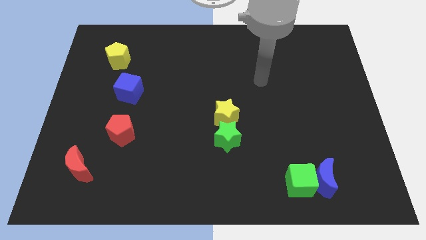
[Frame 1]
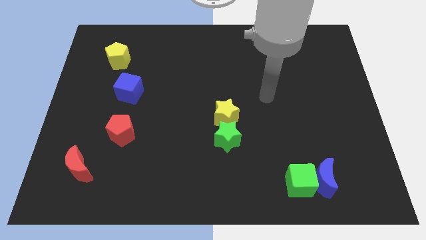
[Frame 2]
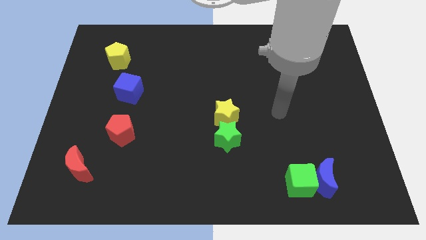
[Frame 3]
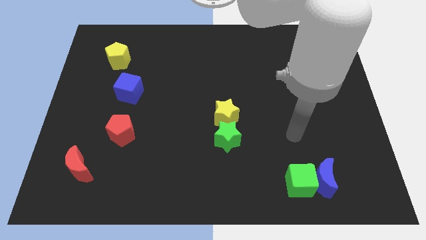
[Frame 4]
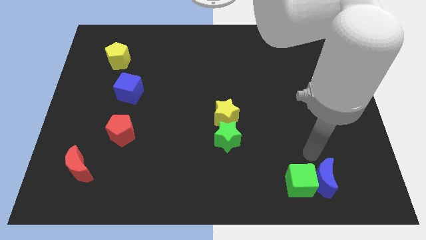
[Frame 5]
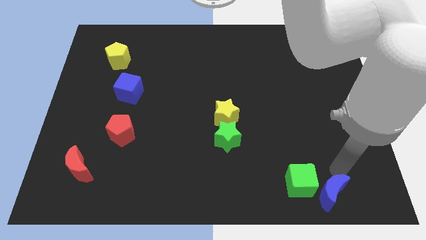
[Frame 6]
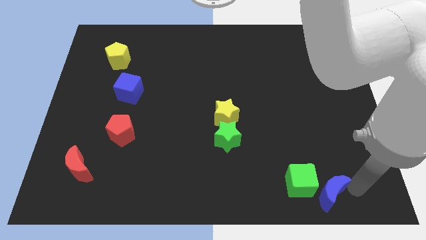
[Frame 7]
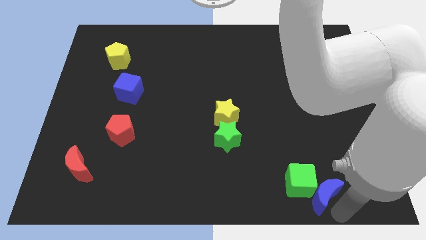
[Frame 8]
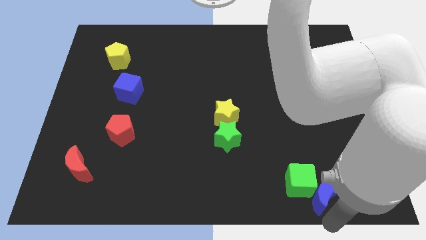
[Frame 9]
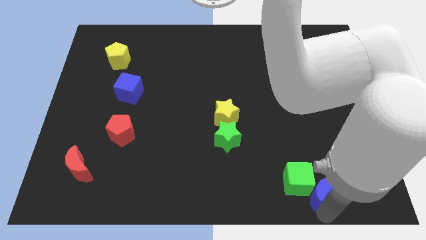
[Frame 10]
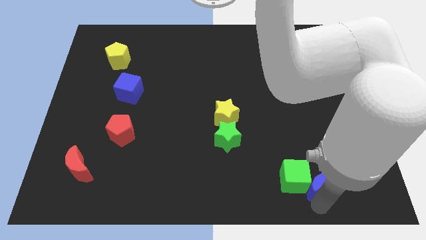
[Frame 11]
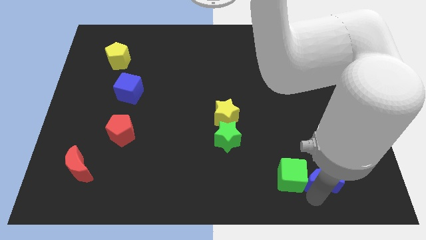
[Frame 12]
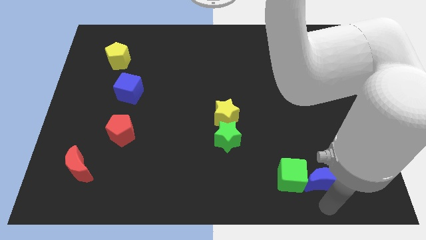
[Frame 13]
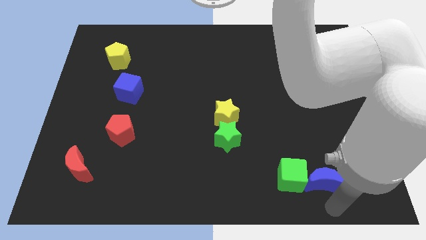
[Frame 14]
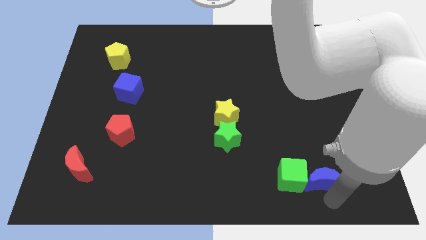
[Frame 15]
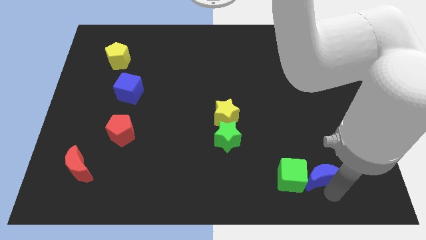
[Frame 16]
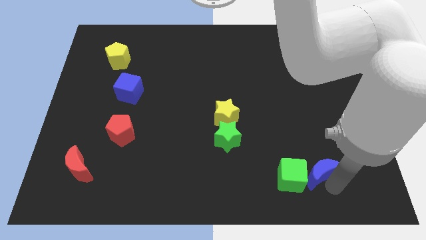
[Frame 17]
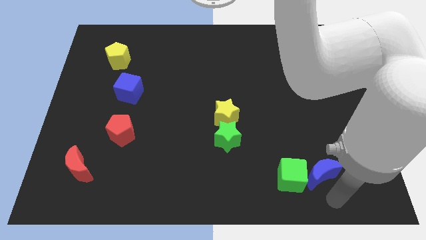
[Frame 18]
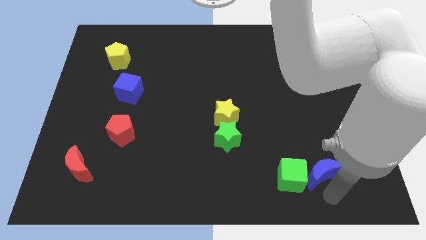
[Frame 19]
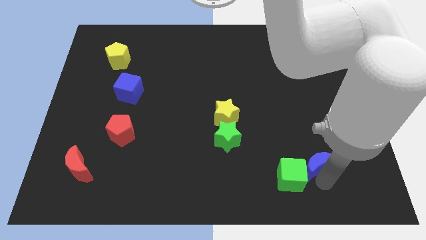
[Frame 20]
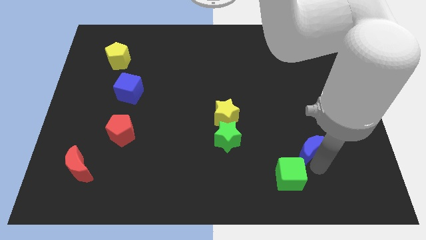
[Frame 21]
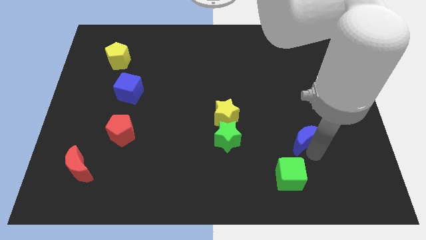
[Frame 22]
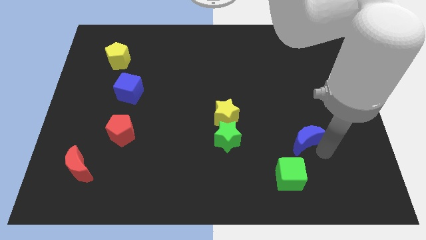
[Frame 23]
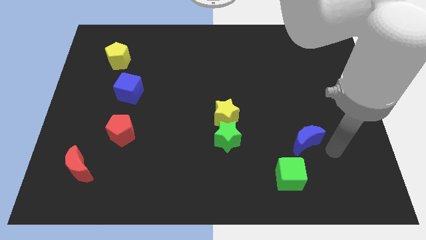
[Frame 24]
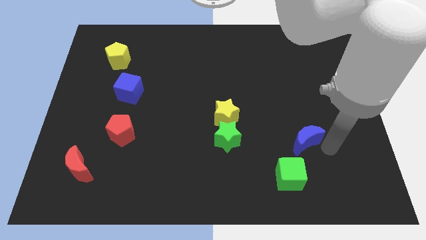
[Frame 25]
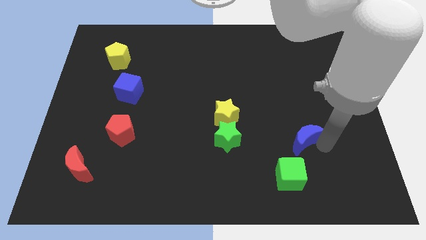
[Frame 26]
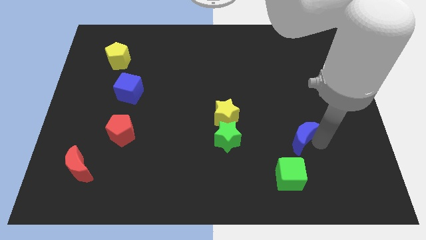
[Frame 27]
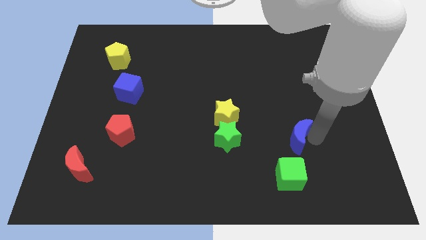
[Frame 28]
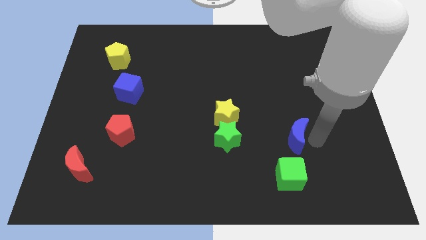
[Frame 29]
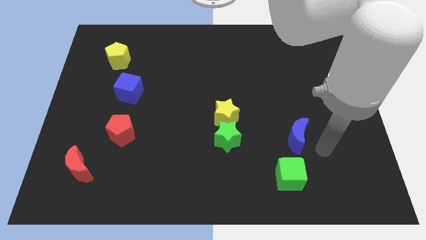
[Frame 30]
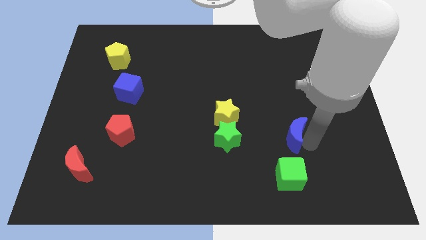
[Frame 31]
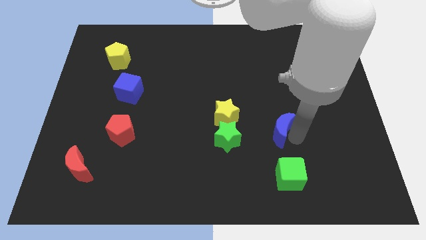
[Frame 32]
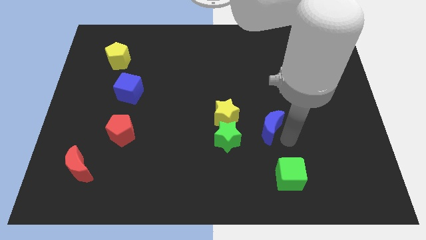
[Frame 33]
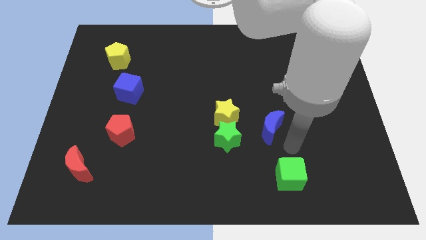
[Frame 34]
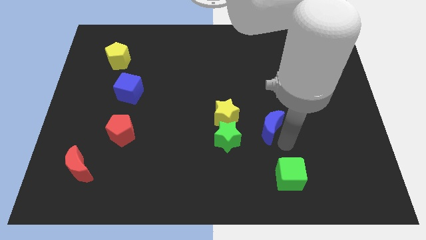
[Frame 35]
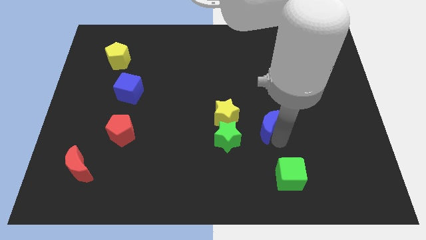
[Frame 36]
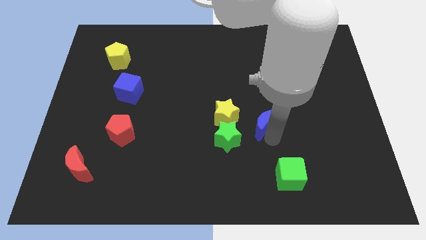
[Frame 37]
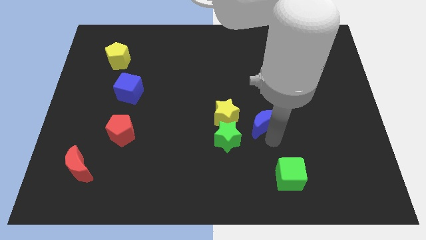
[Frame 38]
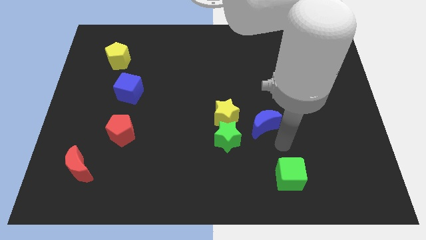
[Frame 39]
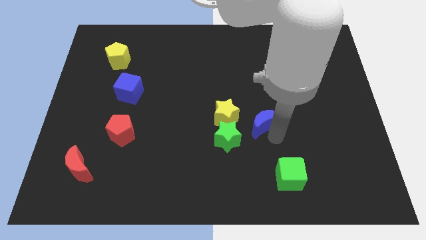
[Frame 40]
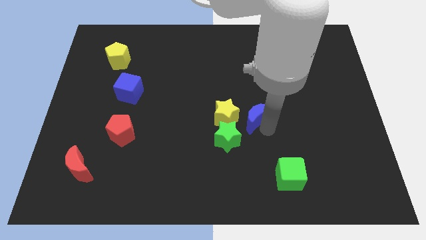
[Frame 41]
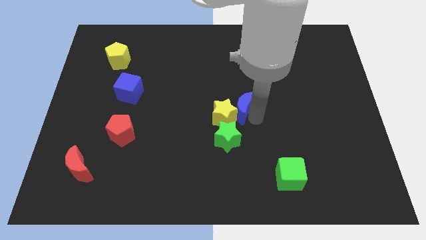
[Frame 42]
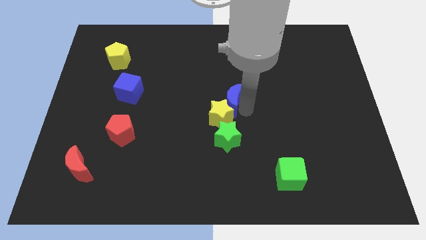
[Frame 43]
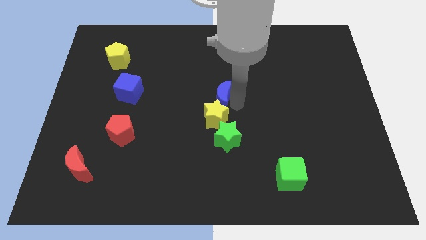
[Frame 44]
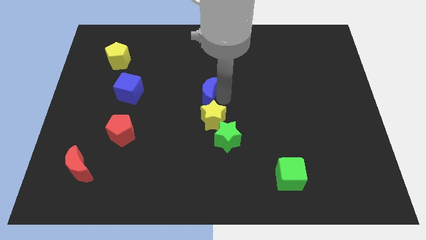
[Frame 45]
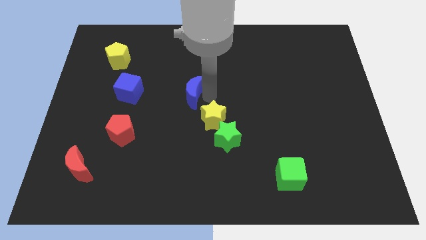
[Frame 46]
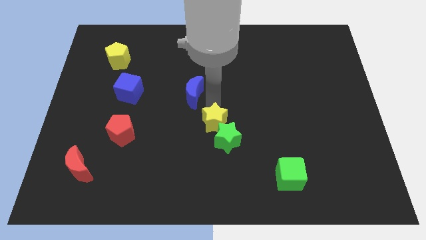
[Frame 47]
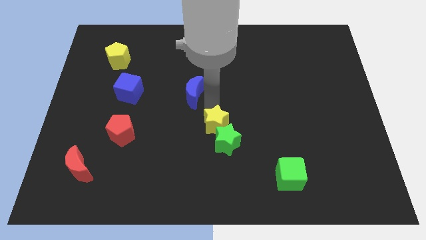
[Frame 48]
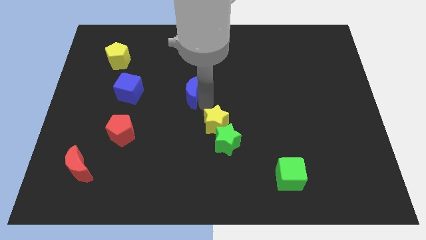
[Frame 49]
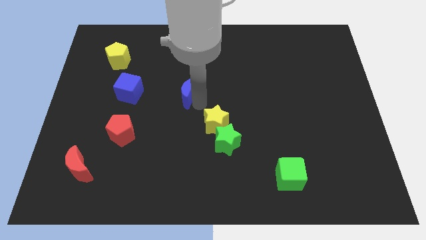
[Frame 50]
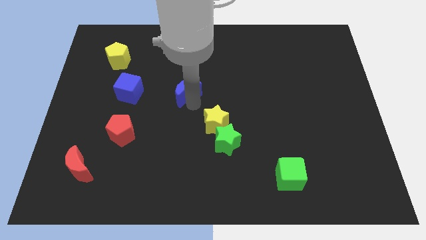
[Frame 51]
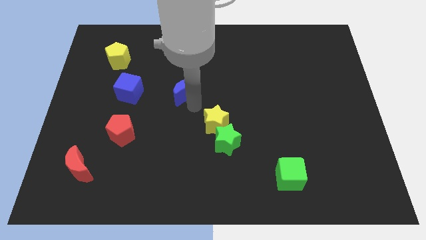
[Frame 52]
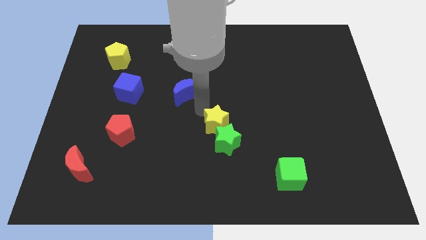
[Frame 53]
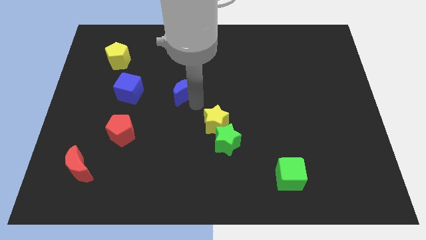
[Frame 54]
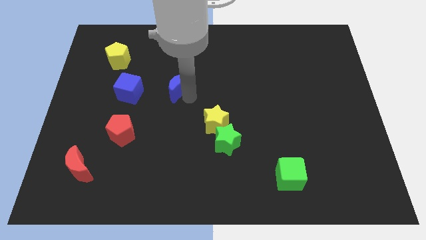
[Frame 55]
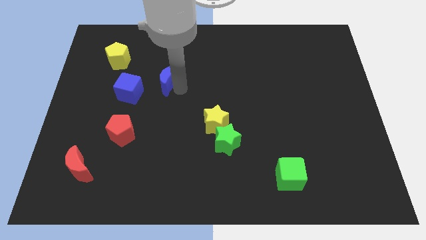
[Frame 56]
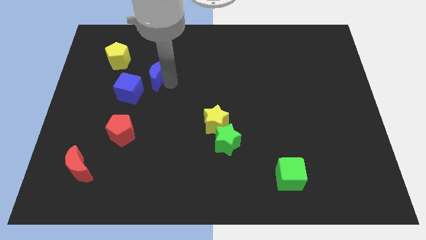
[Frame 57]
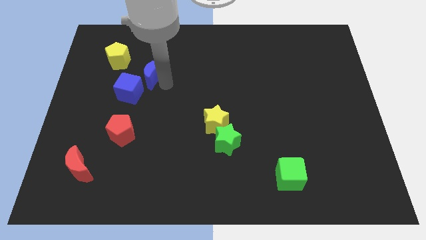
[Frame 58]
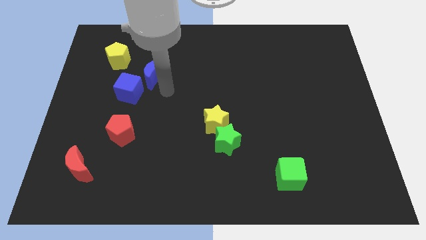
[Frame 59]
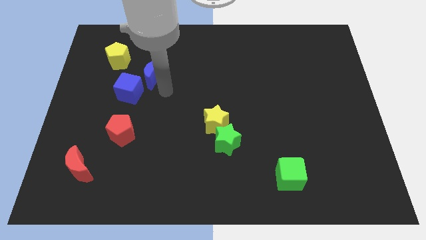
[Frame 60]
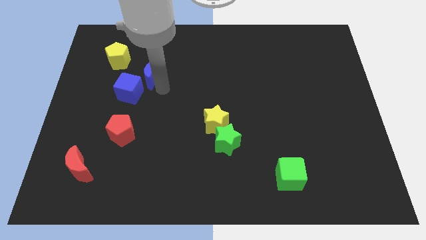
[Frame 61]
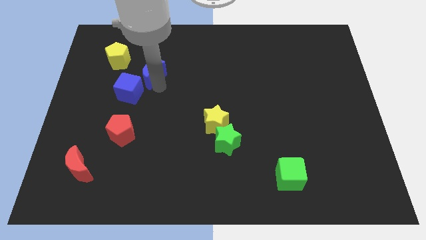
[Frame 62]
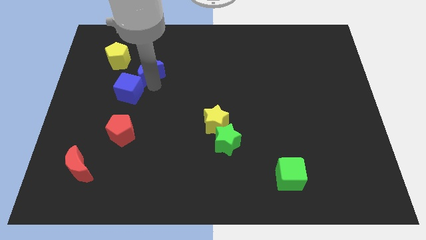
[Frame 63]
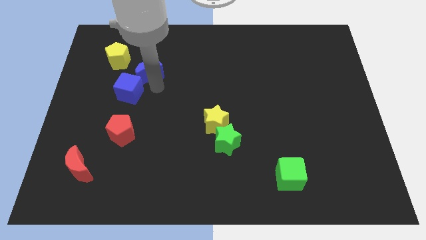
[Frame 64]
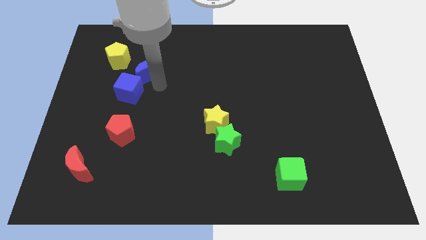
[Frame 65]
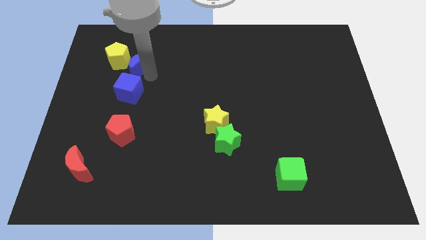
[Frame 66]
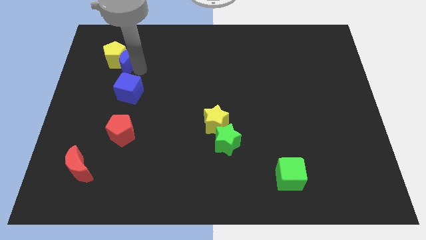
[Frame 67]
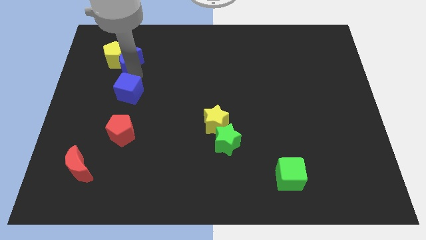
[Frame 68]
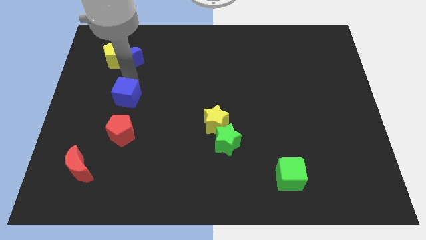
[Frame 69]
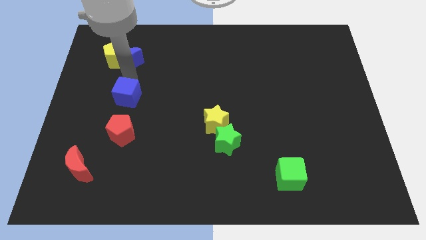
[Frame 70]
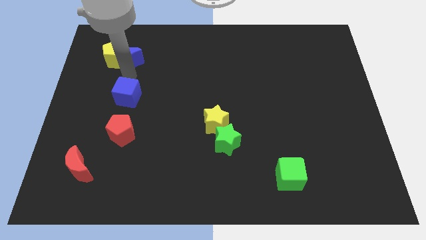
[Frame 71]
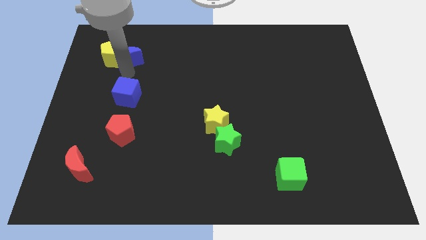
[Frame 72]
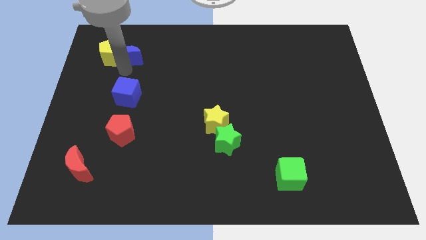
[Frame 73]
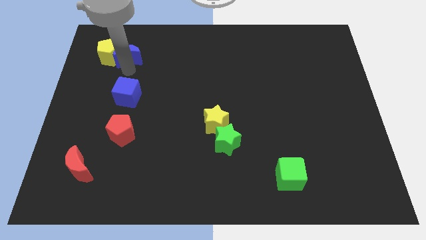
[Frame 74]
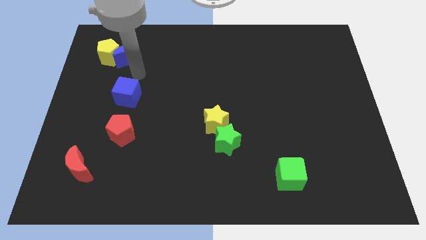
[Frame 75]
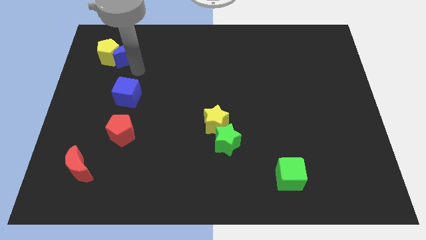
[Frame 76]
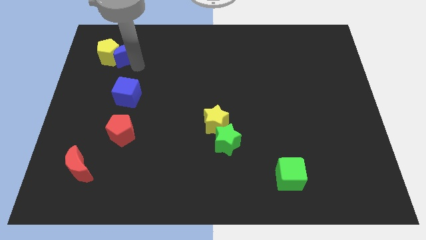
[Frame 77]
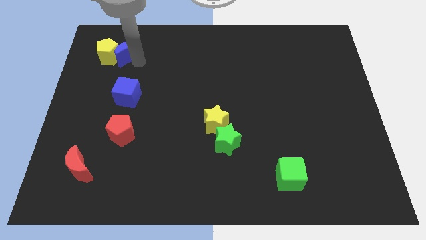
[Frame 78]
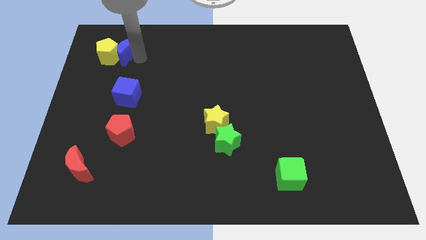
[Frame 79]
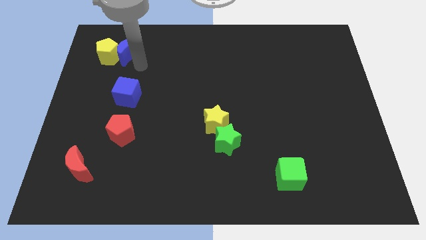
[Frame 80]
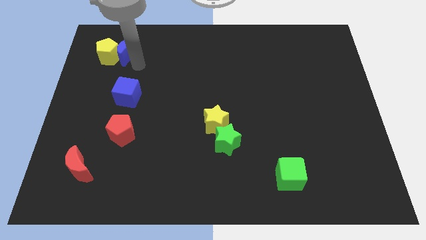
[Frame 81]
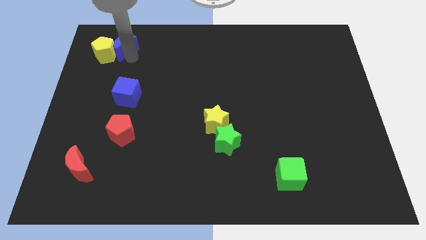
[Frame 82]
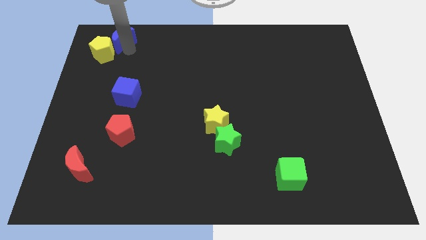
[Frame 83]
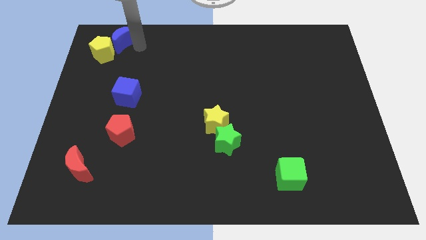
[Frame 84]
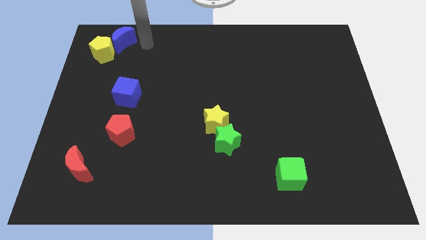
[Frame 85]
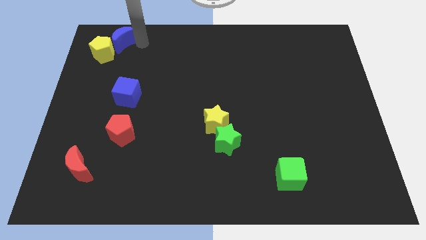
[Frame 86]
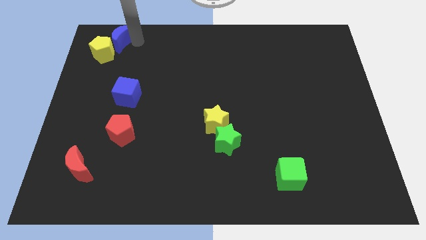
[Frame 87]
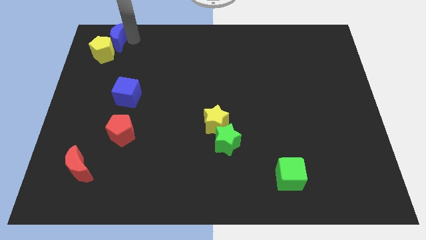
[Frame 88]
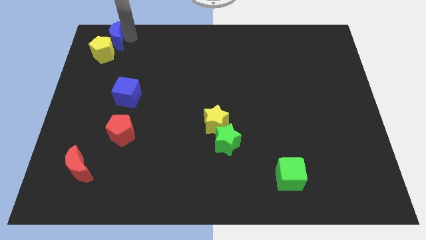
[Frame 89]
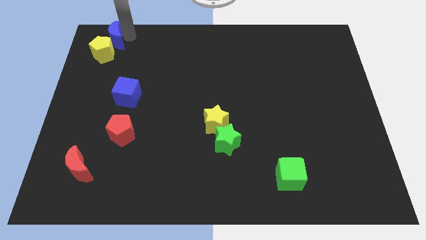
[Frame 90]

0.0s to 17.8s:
put the blue moon to the top left of the board
